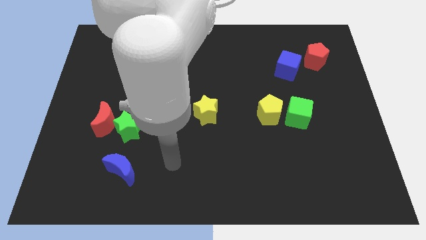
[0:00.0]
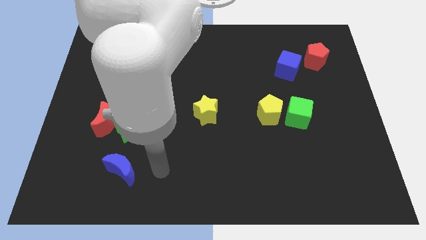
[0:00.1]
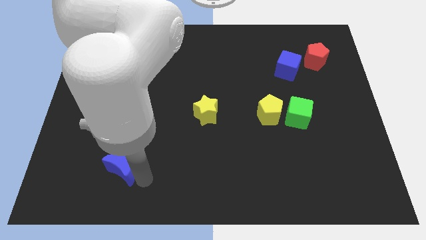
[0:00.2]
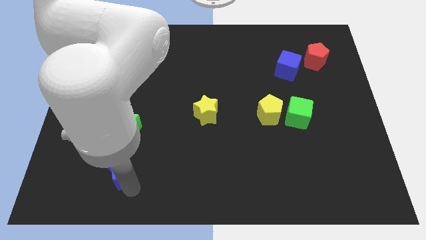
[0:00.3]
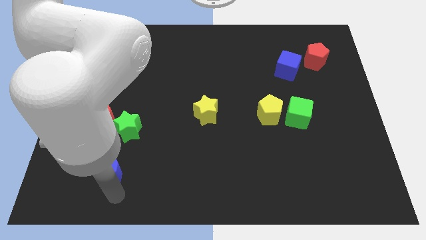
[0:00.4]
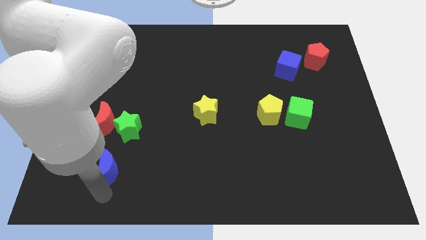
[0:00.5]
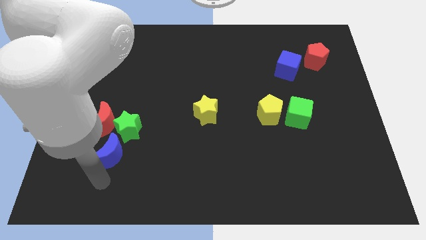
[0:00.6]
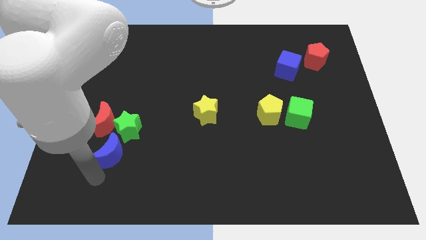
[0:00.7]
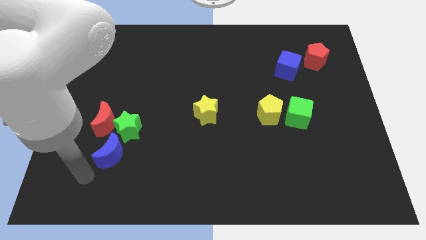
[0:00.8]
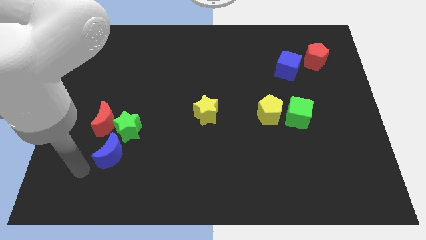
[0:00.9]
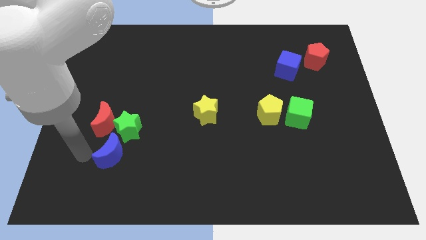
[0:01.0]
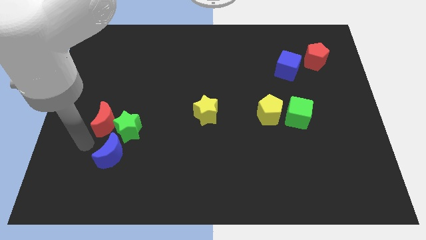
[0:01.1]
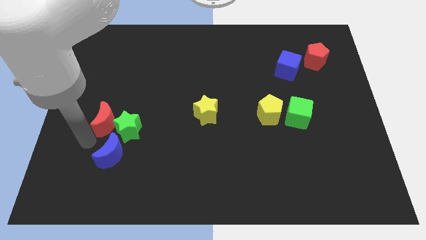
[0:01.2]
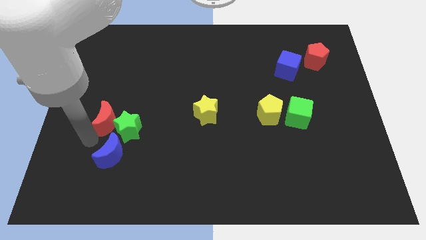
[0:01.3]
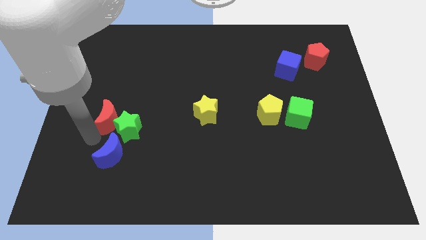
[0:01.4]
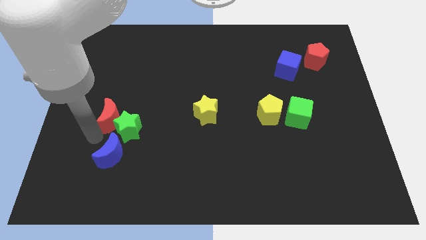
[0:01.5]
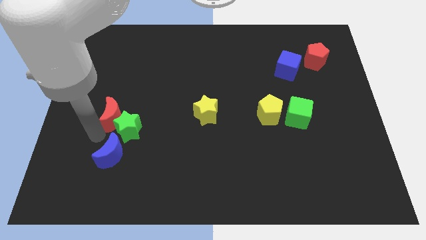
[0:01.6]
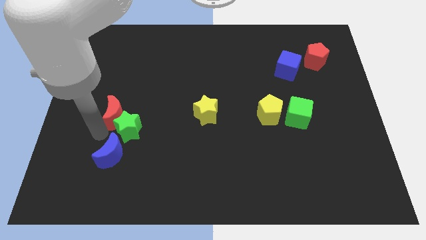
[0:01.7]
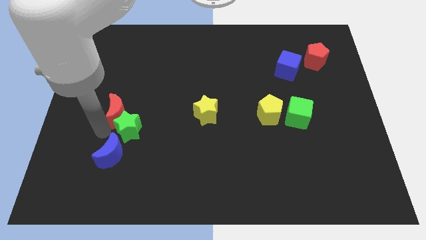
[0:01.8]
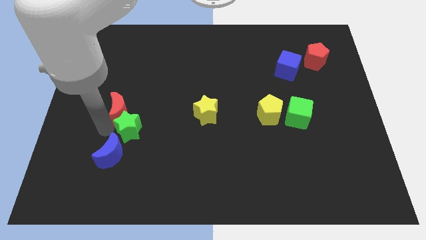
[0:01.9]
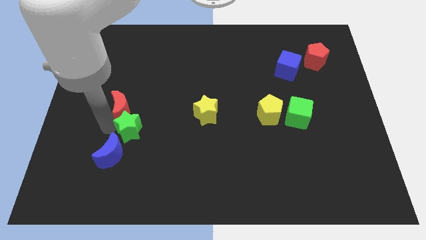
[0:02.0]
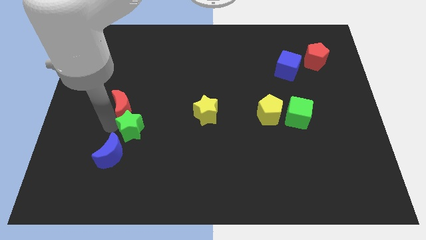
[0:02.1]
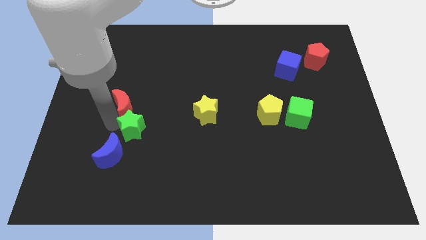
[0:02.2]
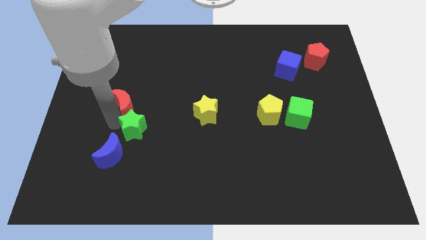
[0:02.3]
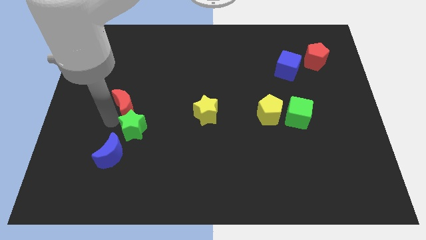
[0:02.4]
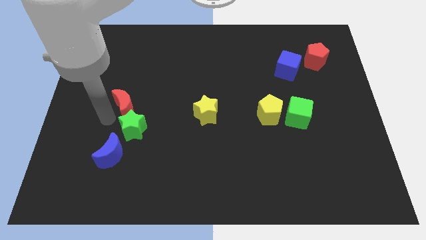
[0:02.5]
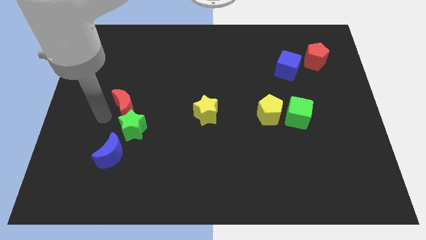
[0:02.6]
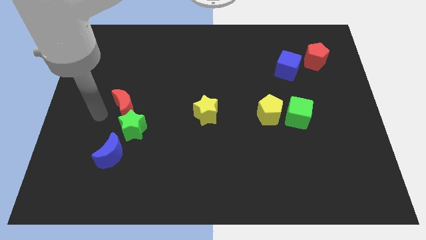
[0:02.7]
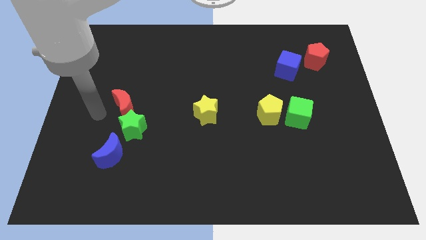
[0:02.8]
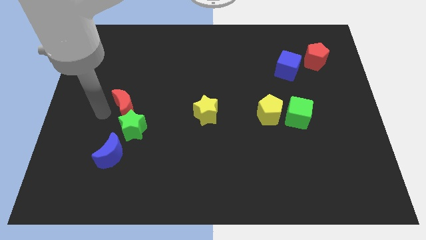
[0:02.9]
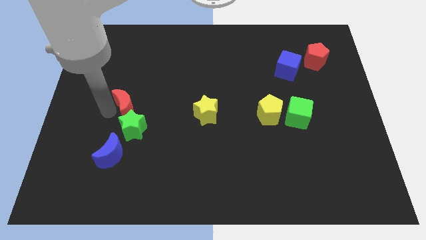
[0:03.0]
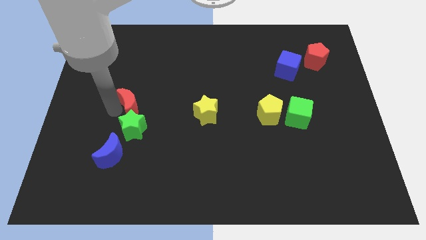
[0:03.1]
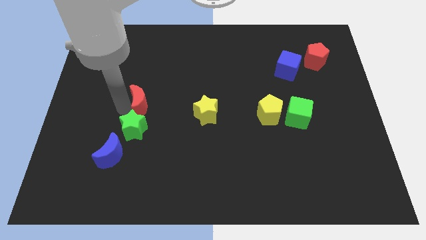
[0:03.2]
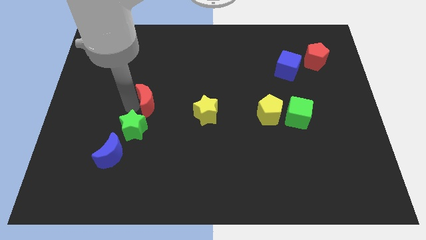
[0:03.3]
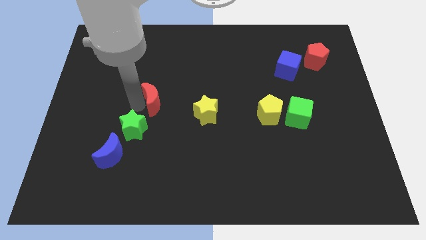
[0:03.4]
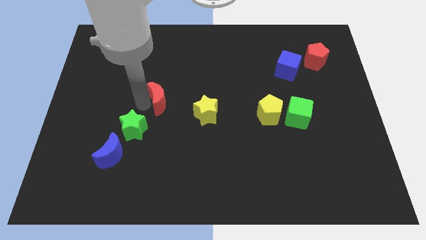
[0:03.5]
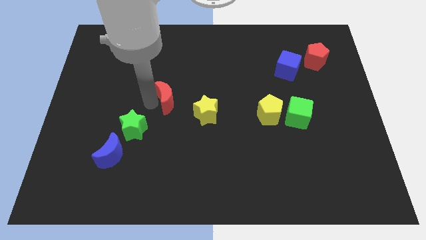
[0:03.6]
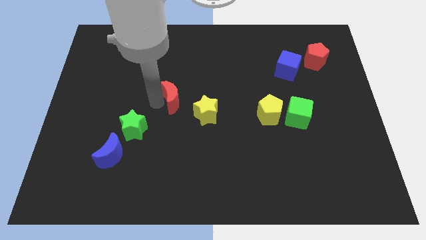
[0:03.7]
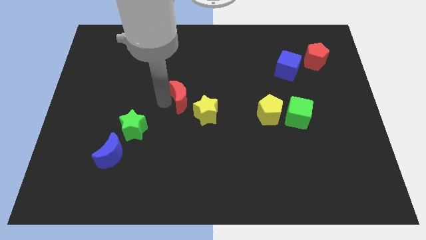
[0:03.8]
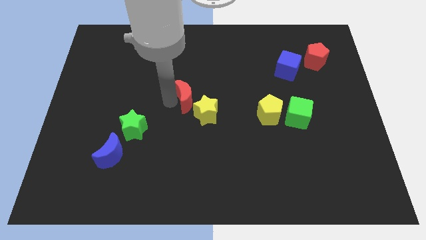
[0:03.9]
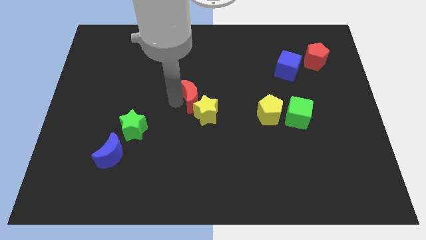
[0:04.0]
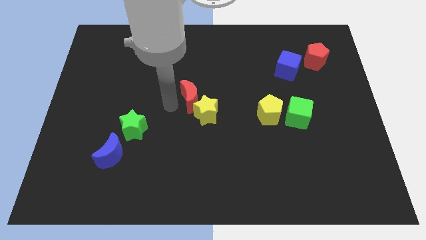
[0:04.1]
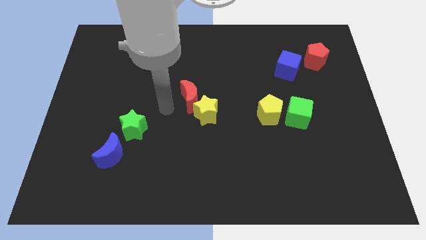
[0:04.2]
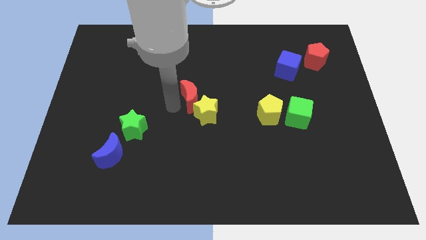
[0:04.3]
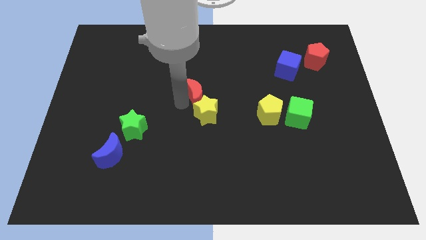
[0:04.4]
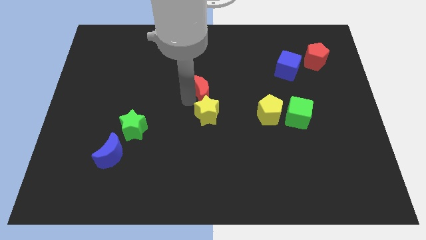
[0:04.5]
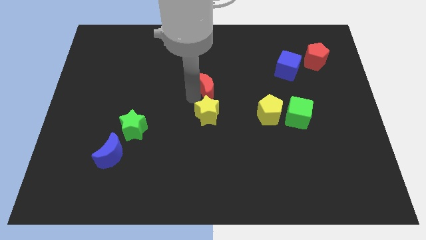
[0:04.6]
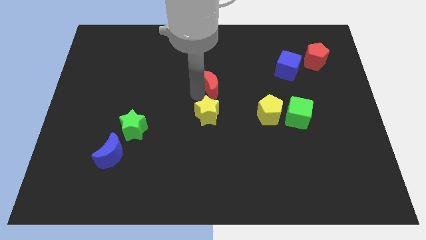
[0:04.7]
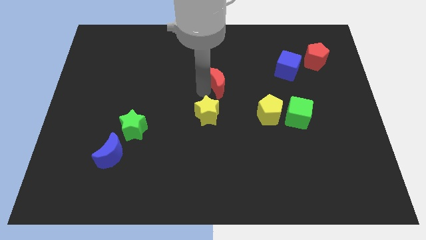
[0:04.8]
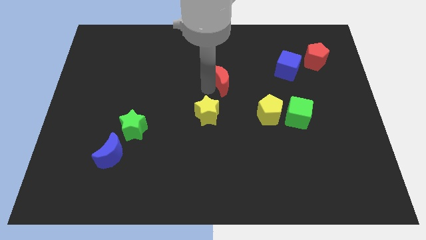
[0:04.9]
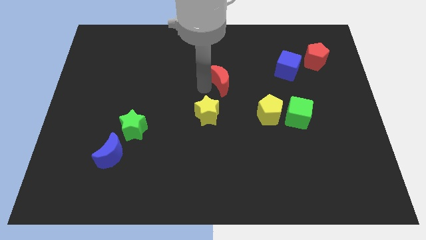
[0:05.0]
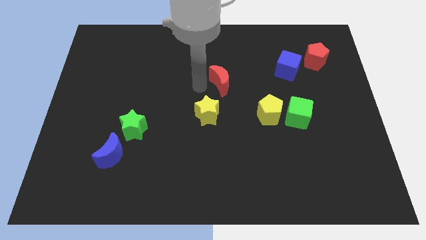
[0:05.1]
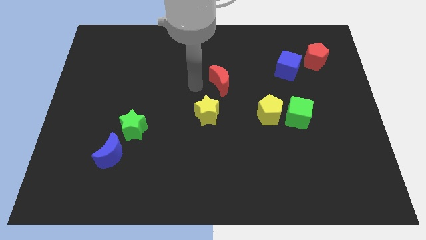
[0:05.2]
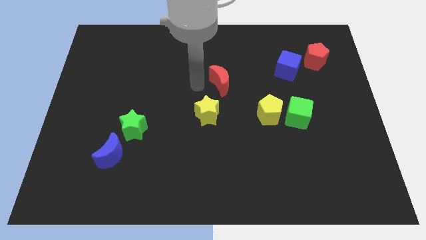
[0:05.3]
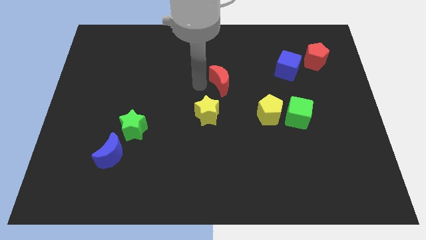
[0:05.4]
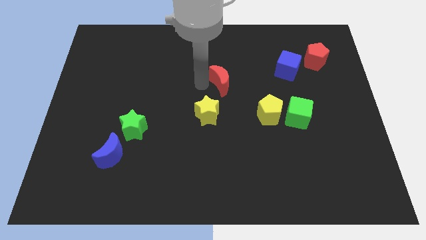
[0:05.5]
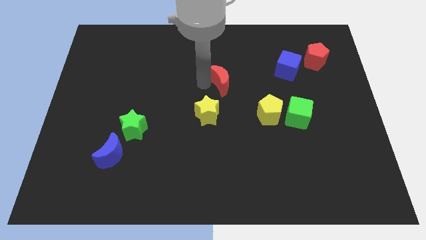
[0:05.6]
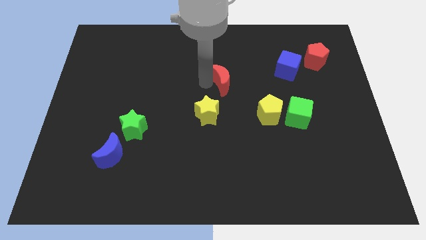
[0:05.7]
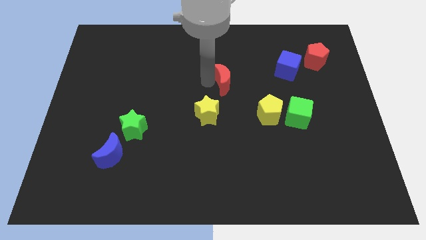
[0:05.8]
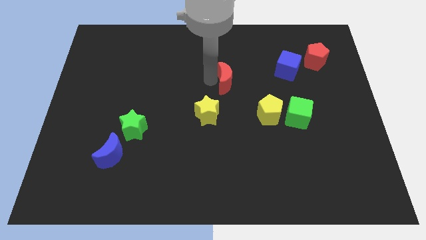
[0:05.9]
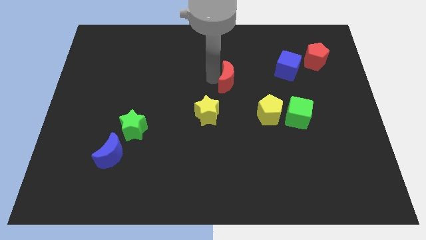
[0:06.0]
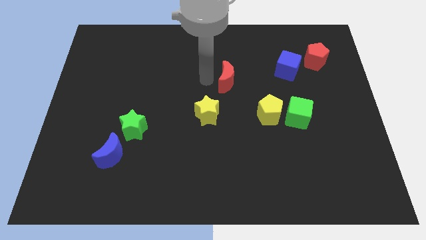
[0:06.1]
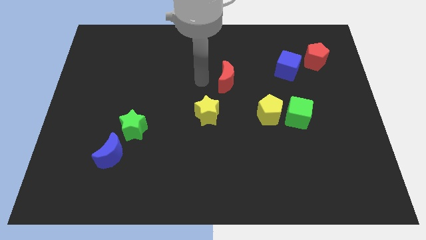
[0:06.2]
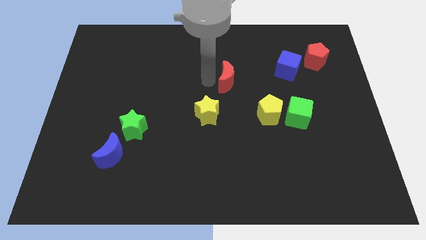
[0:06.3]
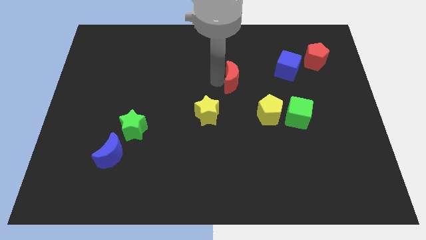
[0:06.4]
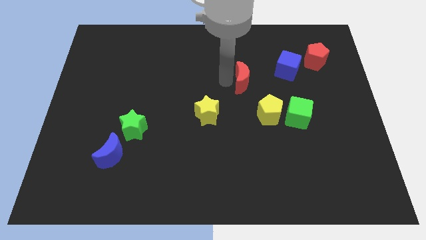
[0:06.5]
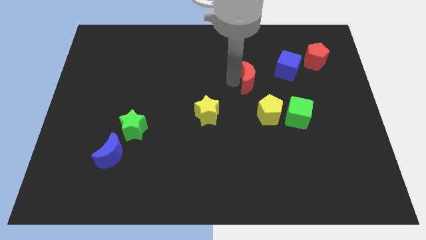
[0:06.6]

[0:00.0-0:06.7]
put the red moon above the yellow pentagon

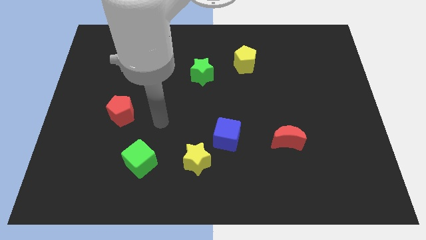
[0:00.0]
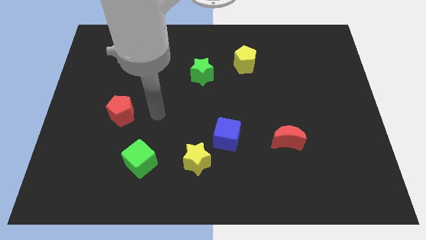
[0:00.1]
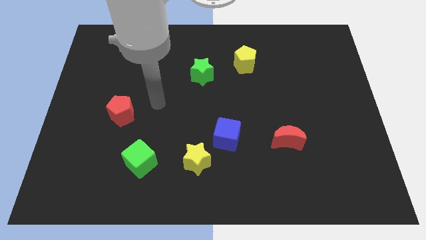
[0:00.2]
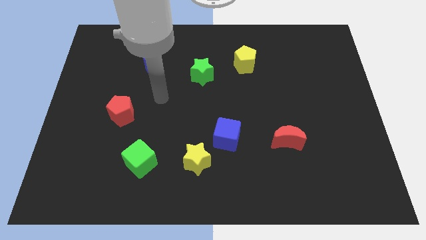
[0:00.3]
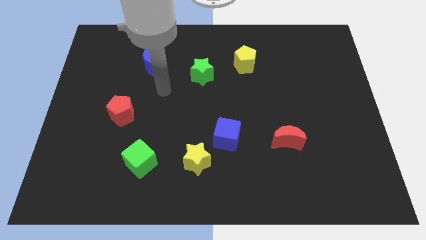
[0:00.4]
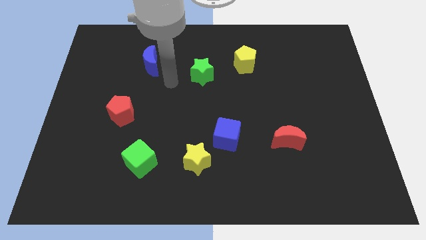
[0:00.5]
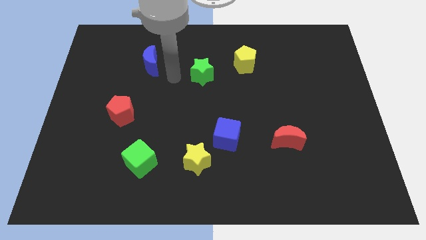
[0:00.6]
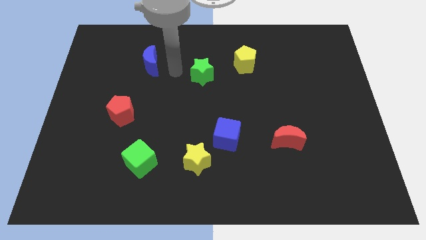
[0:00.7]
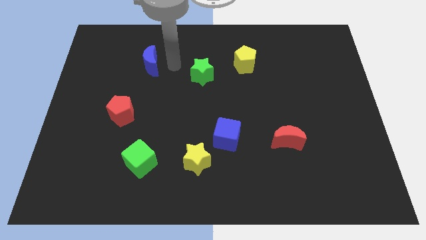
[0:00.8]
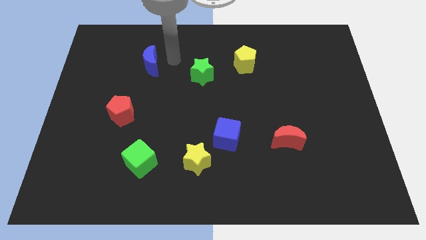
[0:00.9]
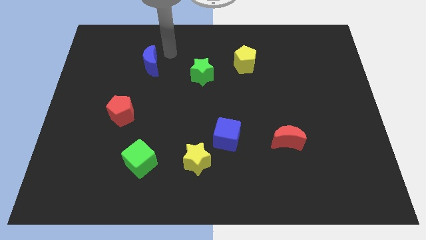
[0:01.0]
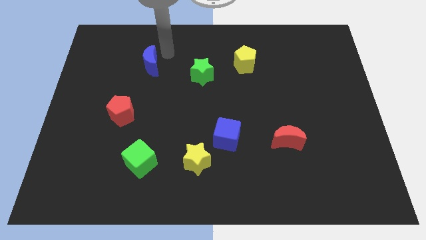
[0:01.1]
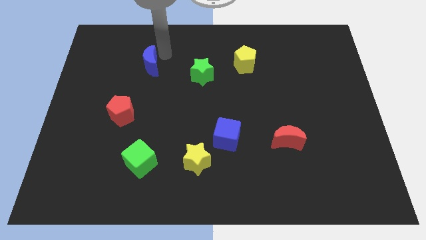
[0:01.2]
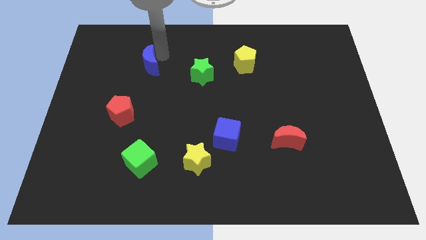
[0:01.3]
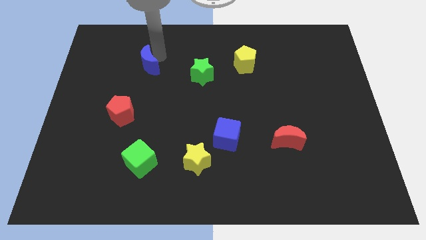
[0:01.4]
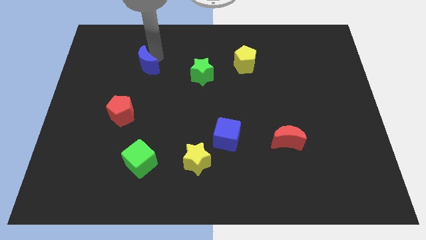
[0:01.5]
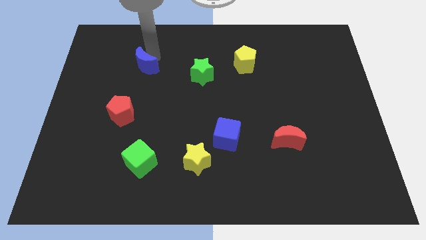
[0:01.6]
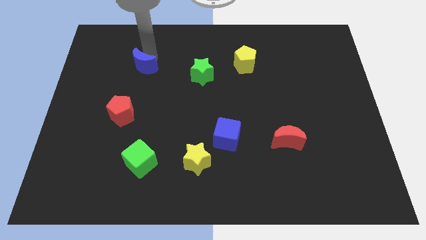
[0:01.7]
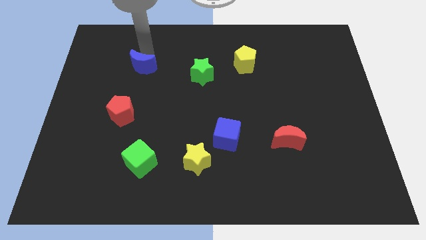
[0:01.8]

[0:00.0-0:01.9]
put the blue moon to the top side of the red pentagon
